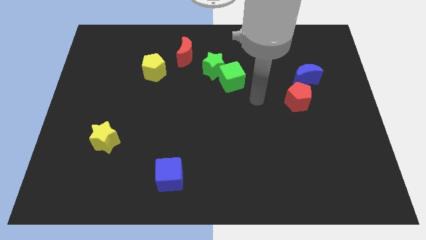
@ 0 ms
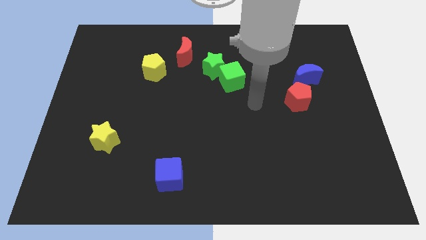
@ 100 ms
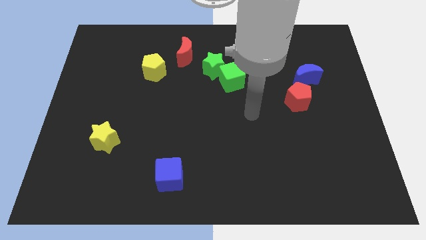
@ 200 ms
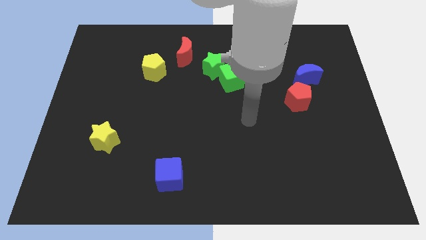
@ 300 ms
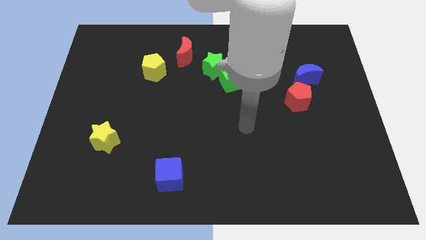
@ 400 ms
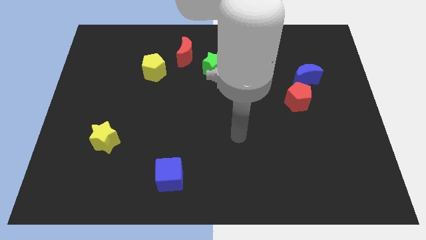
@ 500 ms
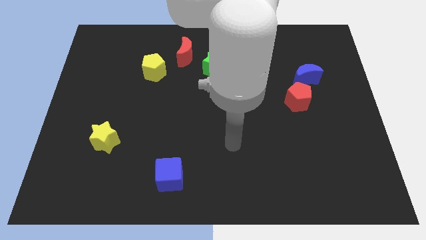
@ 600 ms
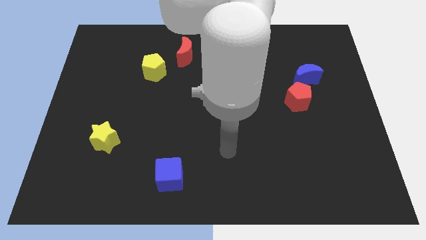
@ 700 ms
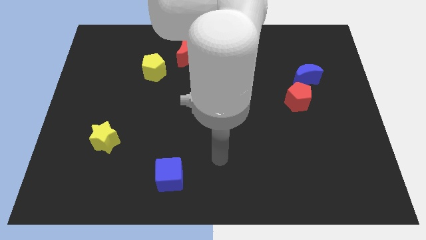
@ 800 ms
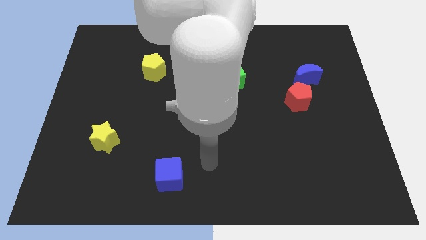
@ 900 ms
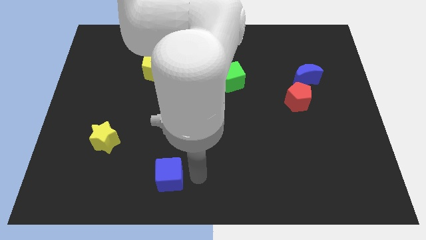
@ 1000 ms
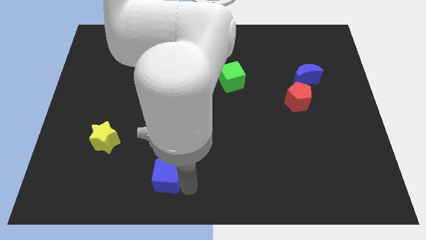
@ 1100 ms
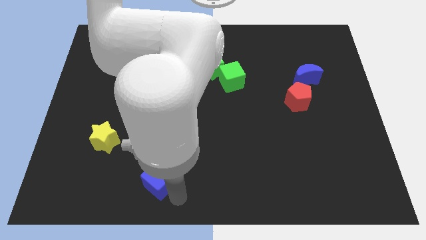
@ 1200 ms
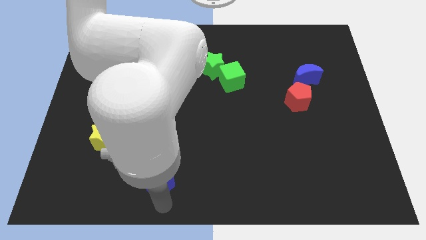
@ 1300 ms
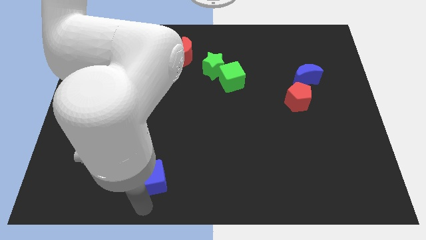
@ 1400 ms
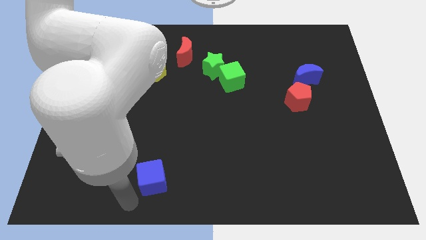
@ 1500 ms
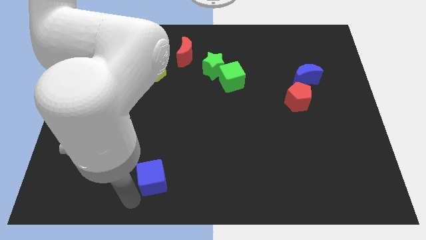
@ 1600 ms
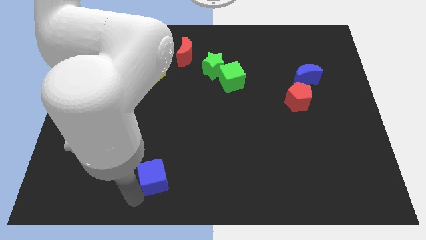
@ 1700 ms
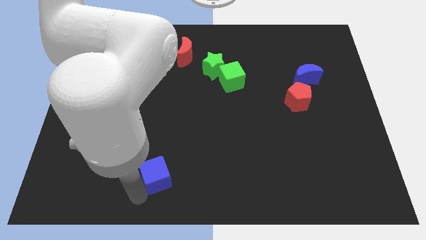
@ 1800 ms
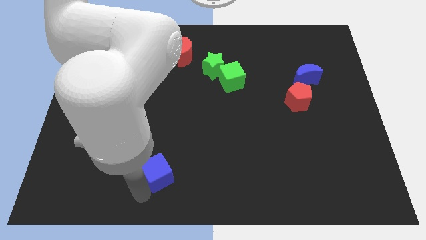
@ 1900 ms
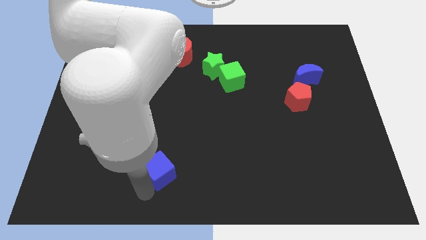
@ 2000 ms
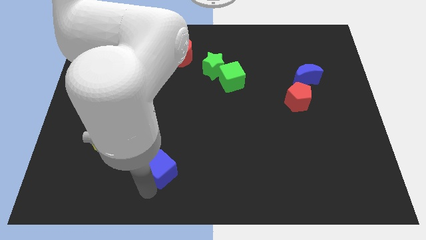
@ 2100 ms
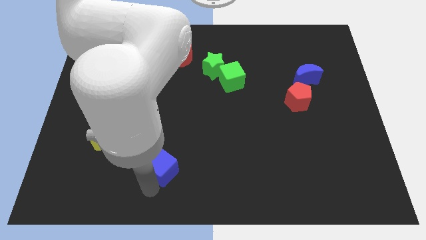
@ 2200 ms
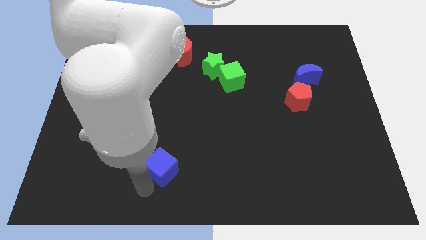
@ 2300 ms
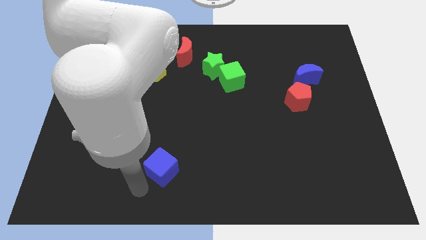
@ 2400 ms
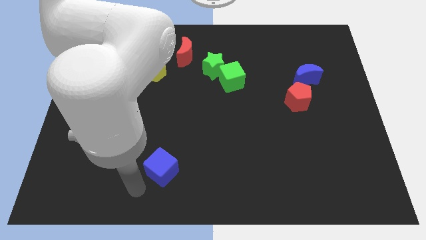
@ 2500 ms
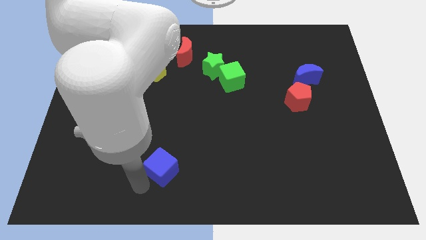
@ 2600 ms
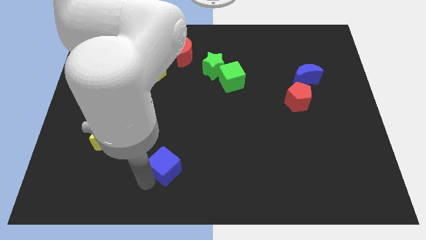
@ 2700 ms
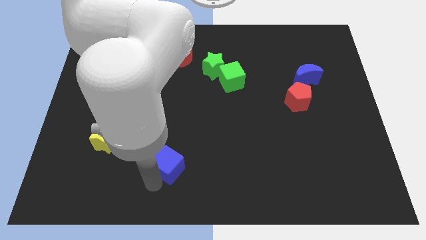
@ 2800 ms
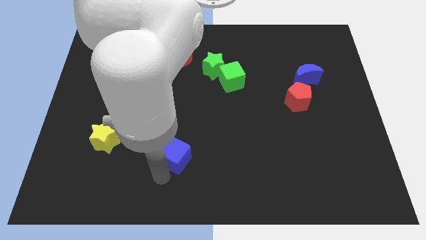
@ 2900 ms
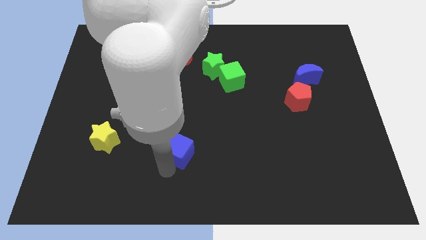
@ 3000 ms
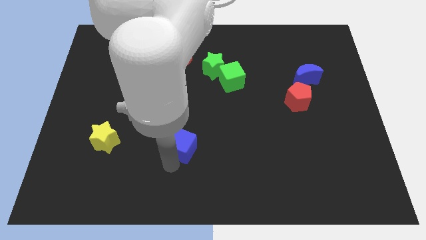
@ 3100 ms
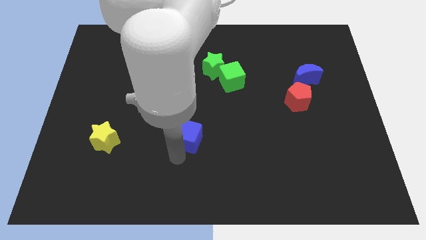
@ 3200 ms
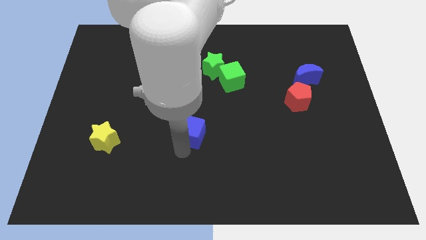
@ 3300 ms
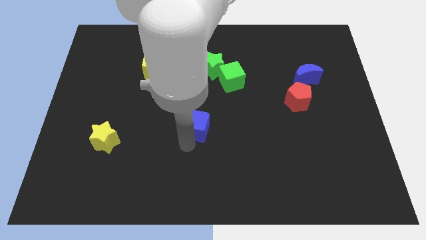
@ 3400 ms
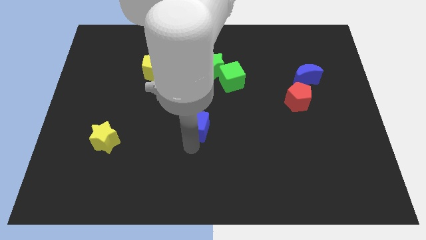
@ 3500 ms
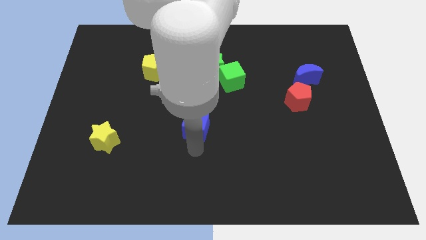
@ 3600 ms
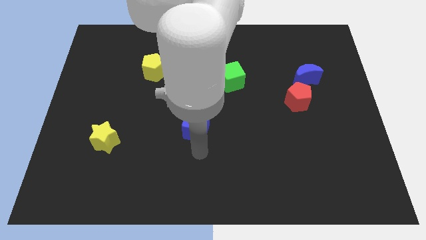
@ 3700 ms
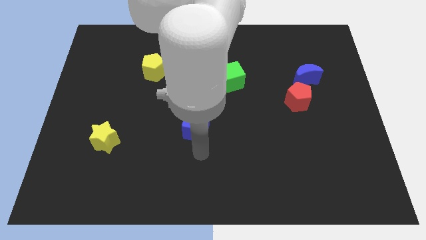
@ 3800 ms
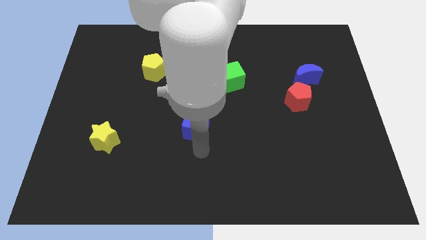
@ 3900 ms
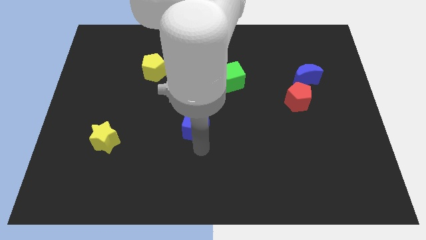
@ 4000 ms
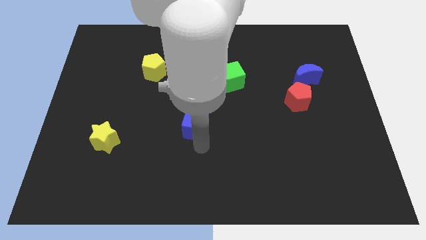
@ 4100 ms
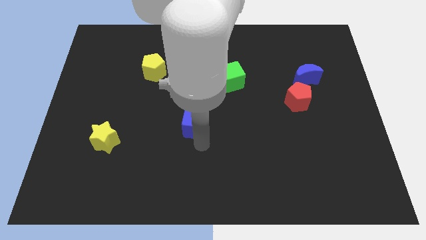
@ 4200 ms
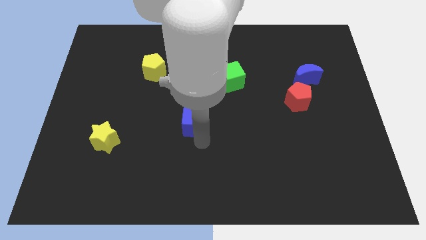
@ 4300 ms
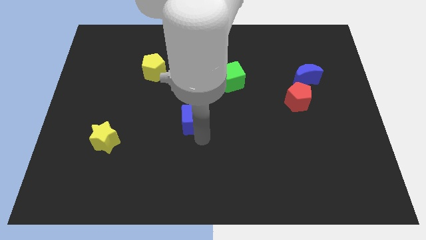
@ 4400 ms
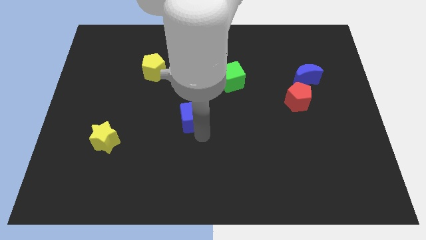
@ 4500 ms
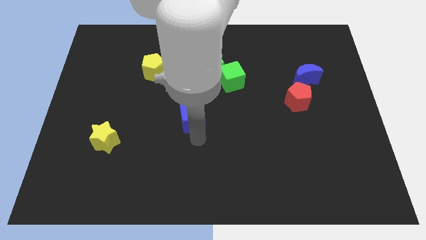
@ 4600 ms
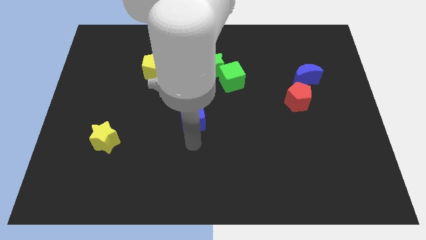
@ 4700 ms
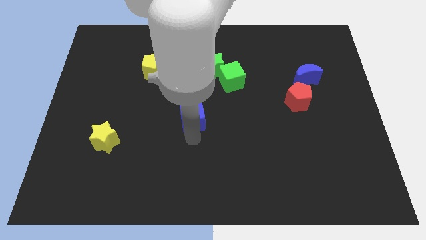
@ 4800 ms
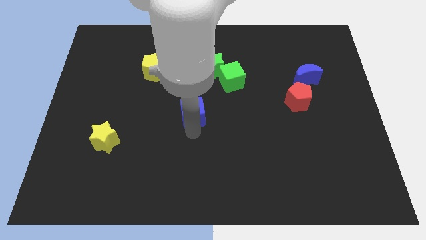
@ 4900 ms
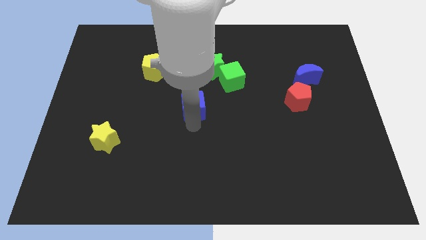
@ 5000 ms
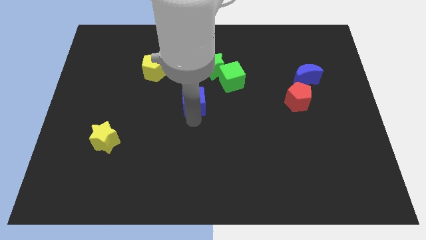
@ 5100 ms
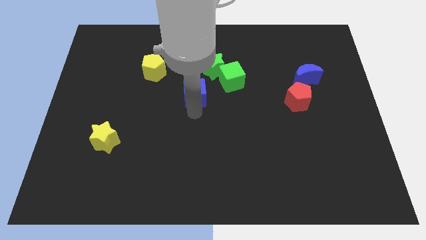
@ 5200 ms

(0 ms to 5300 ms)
move the blue cube to the left of the green cube

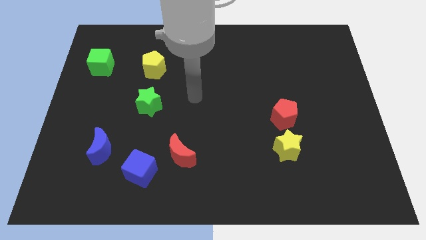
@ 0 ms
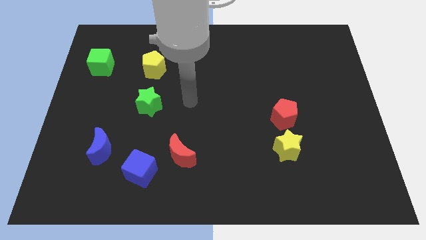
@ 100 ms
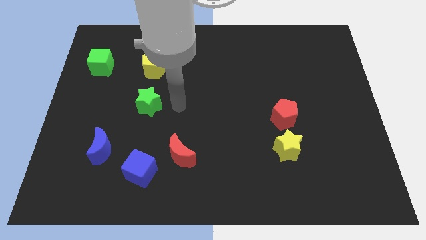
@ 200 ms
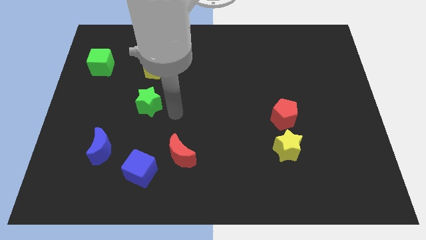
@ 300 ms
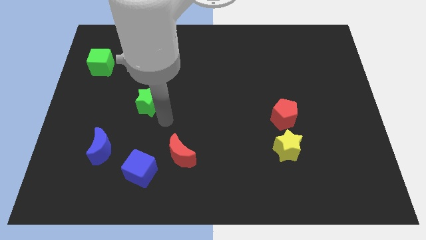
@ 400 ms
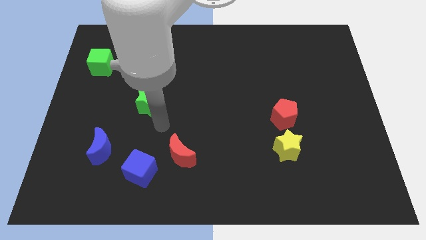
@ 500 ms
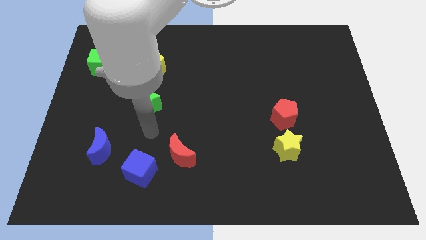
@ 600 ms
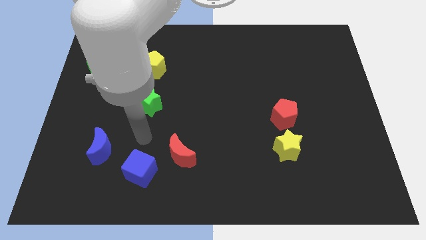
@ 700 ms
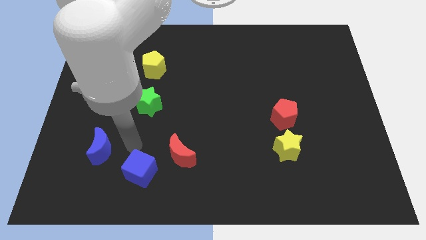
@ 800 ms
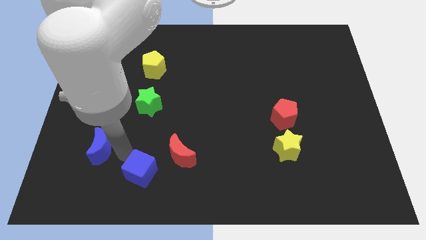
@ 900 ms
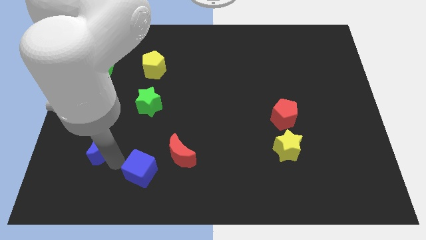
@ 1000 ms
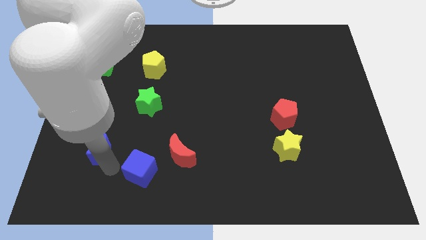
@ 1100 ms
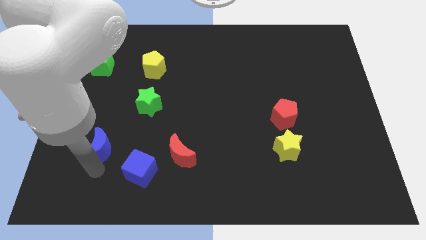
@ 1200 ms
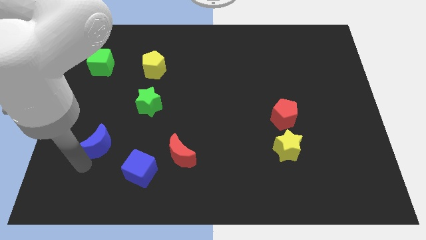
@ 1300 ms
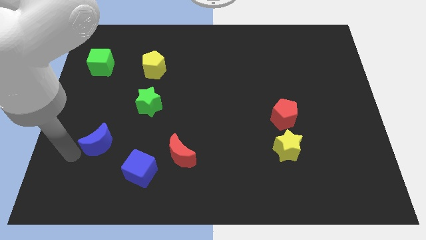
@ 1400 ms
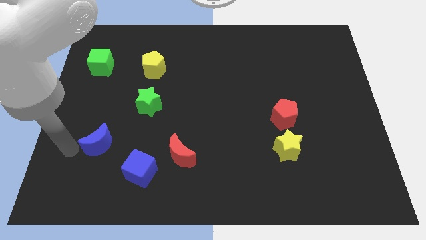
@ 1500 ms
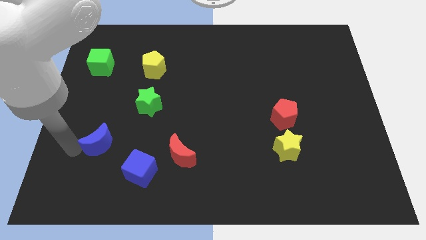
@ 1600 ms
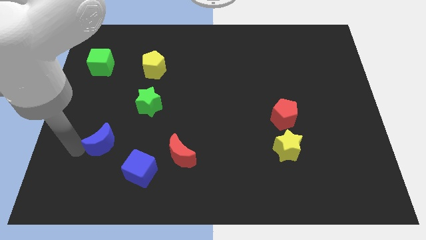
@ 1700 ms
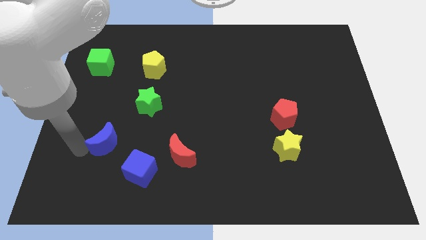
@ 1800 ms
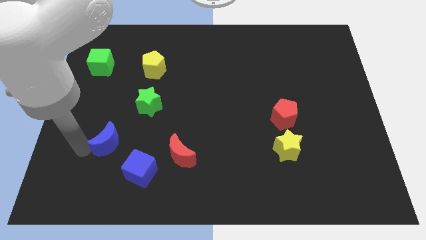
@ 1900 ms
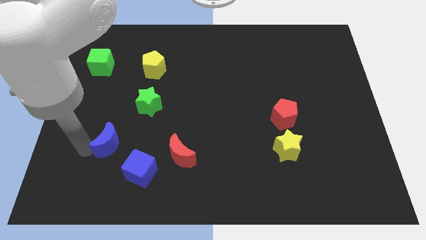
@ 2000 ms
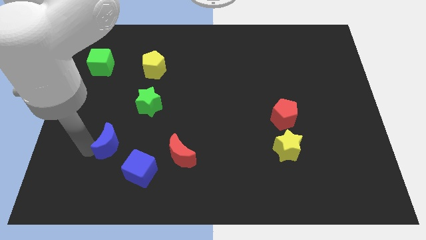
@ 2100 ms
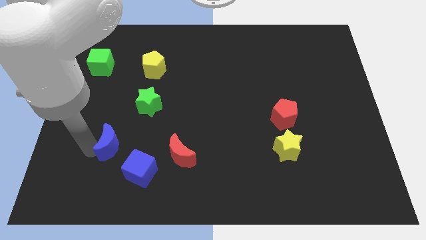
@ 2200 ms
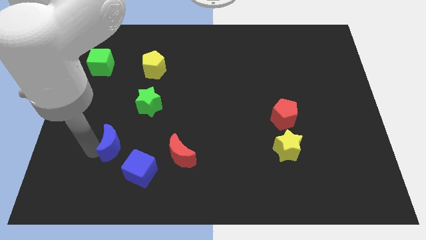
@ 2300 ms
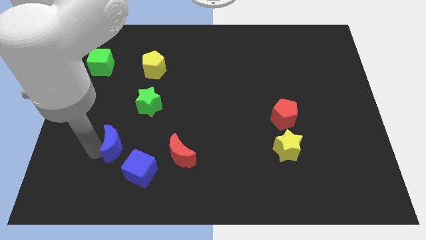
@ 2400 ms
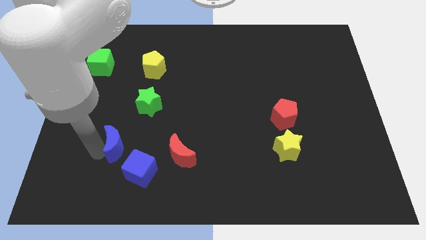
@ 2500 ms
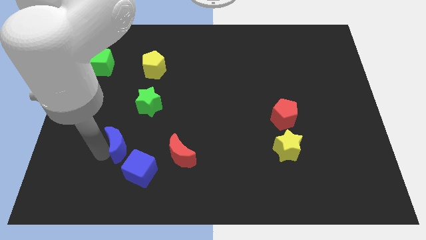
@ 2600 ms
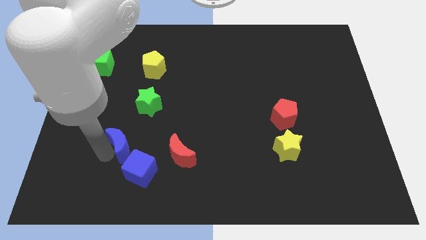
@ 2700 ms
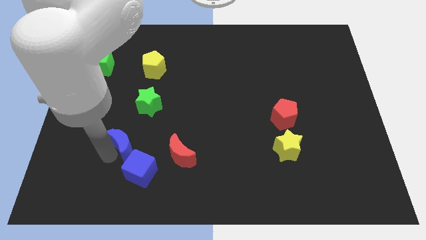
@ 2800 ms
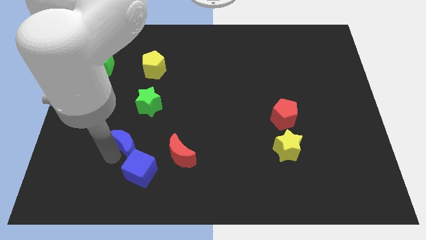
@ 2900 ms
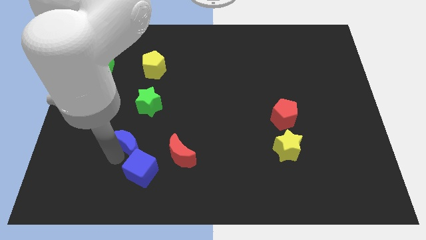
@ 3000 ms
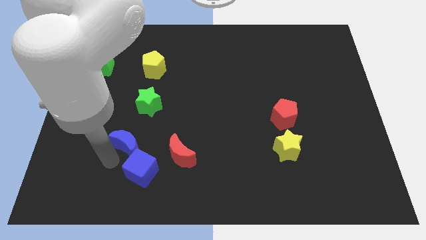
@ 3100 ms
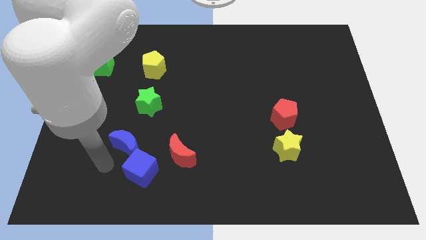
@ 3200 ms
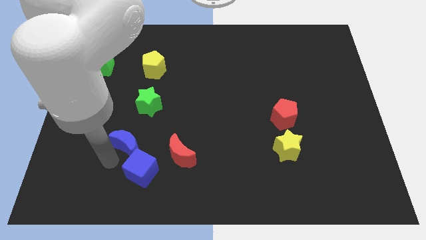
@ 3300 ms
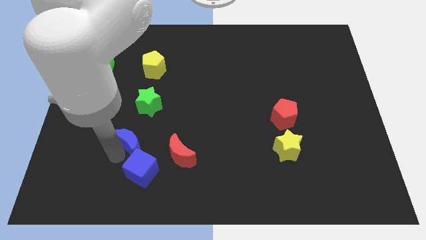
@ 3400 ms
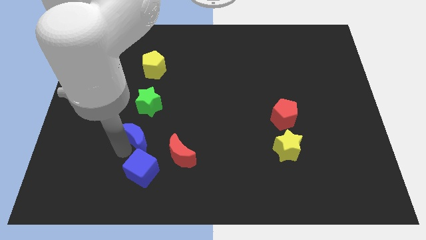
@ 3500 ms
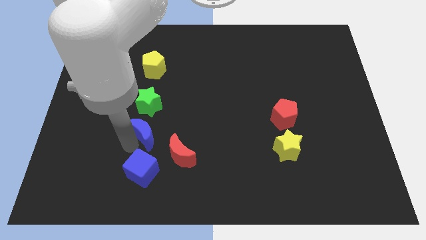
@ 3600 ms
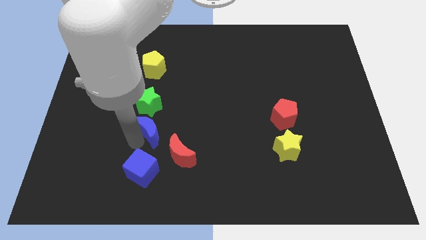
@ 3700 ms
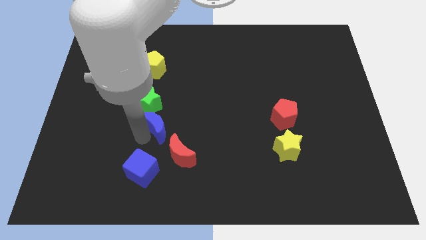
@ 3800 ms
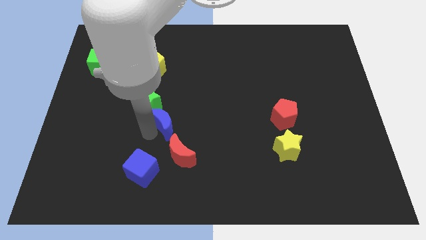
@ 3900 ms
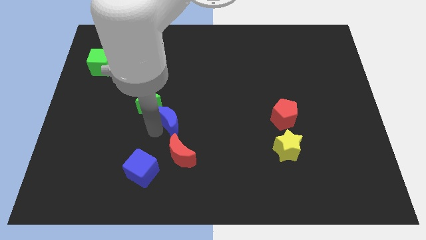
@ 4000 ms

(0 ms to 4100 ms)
slide the blue moon right of the green star
